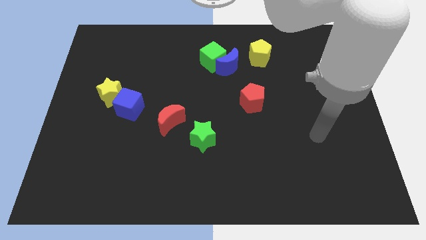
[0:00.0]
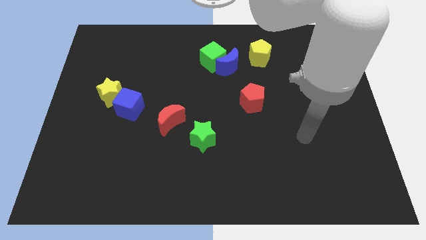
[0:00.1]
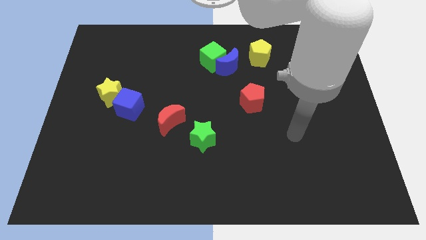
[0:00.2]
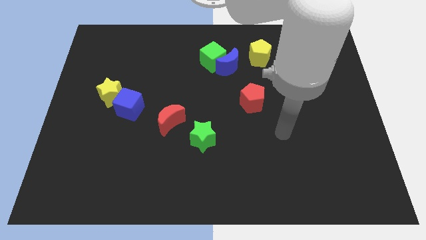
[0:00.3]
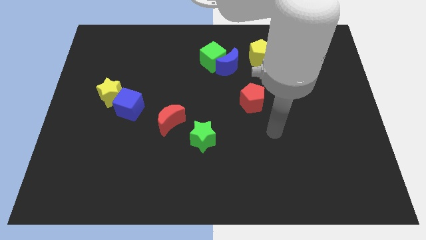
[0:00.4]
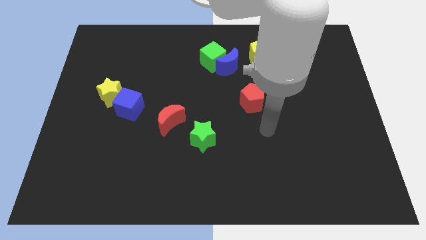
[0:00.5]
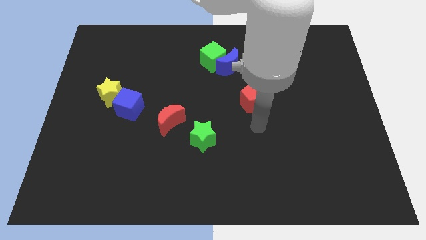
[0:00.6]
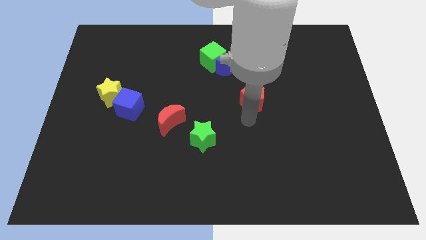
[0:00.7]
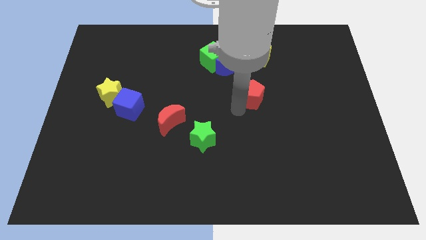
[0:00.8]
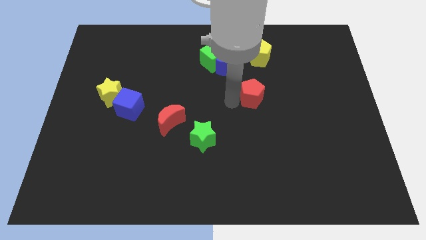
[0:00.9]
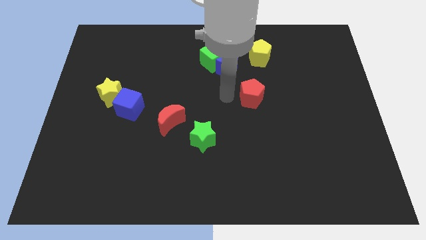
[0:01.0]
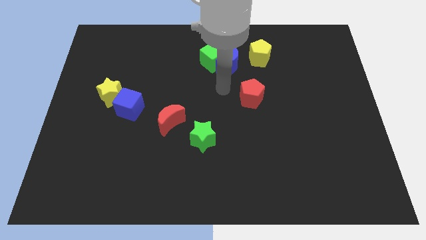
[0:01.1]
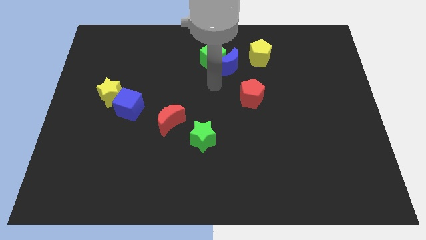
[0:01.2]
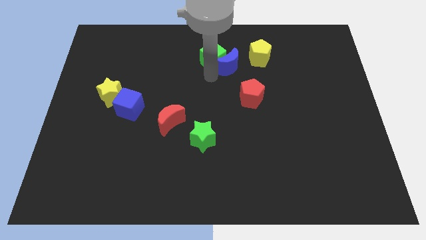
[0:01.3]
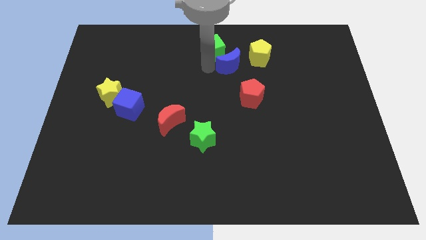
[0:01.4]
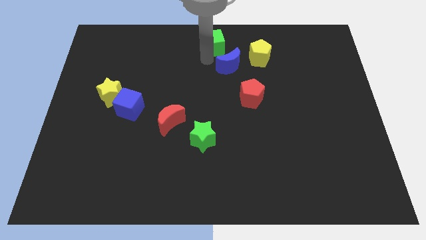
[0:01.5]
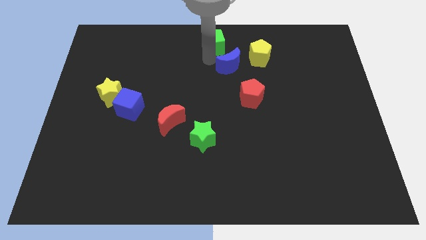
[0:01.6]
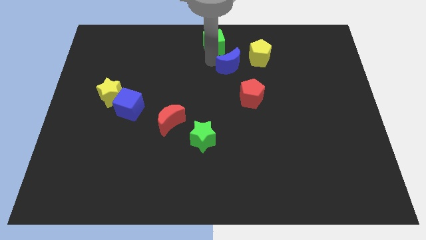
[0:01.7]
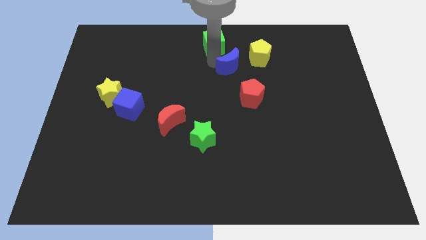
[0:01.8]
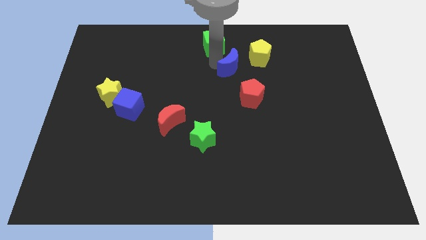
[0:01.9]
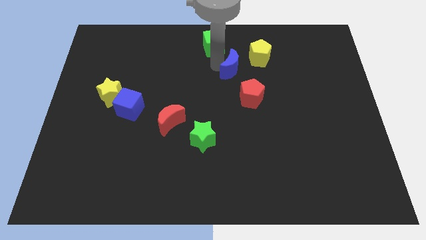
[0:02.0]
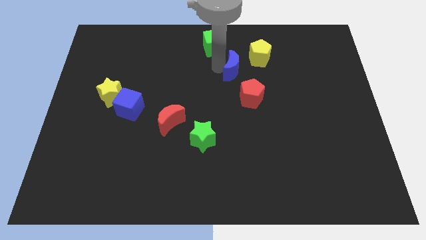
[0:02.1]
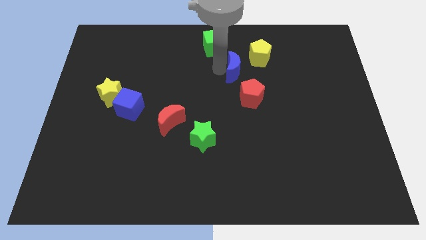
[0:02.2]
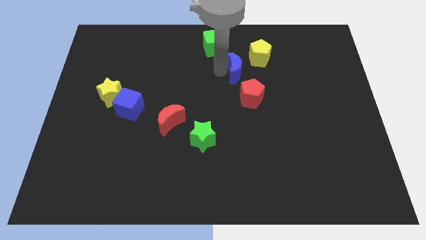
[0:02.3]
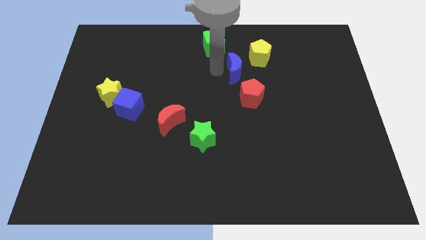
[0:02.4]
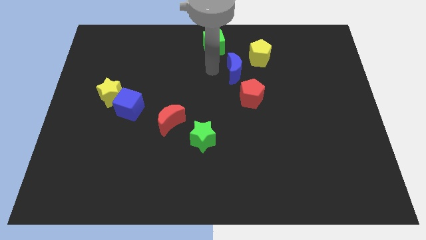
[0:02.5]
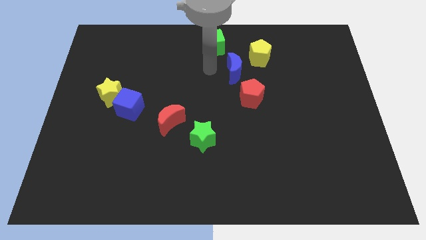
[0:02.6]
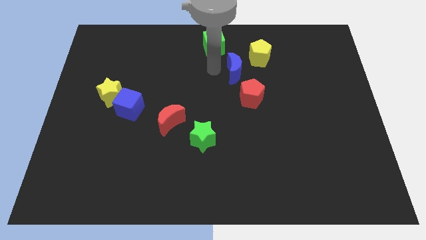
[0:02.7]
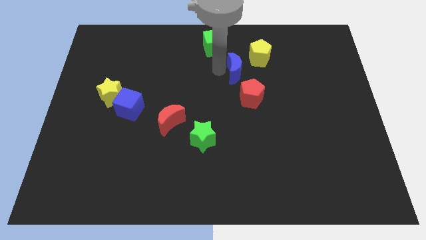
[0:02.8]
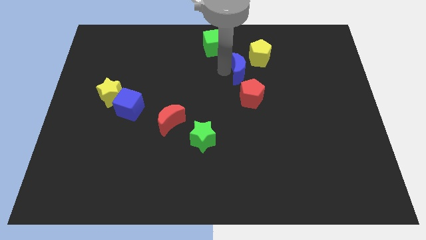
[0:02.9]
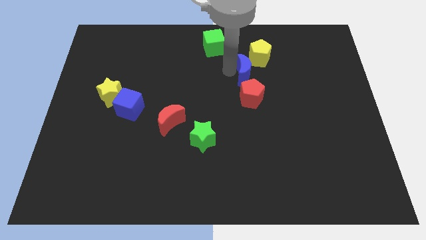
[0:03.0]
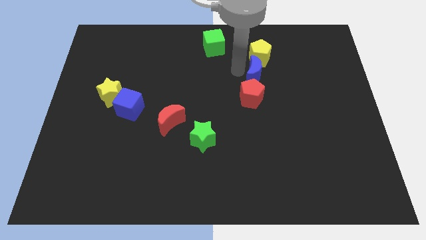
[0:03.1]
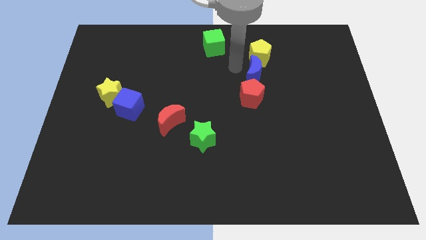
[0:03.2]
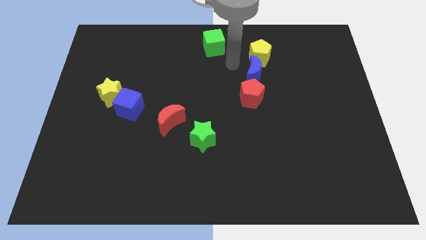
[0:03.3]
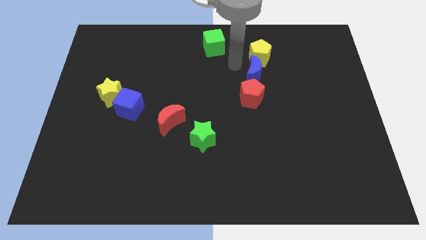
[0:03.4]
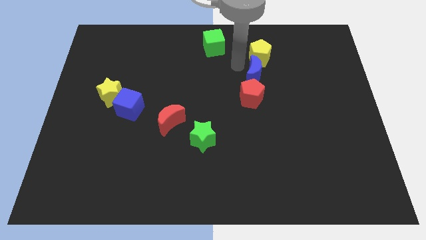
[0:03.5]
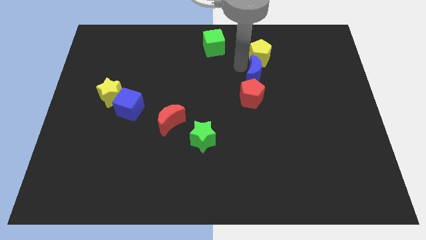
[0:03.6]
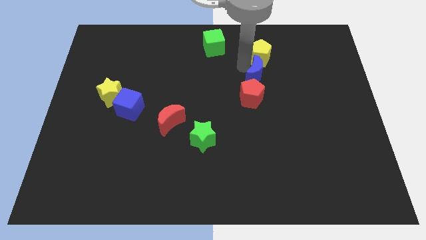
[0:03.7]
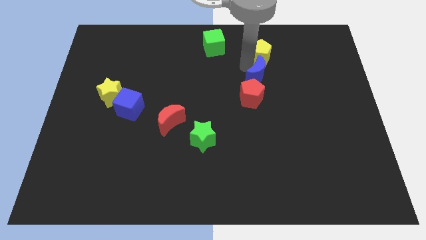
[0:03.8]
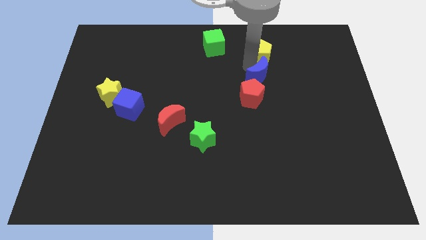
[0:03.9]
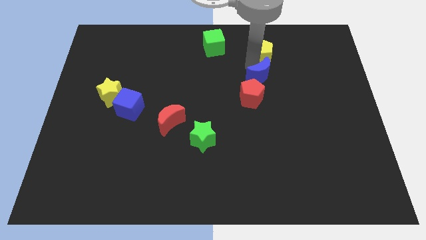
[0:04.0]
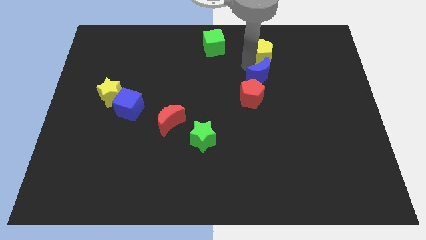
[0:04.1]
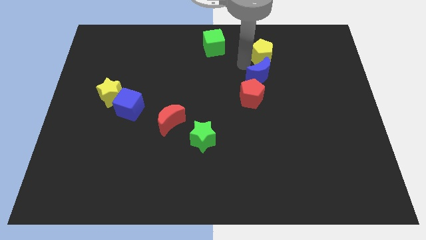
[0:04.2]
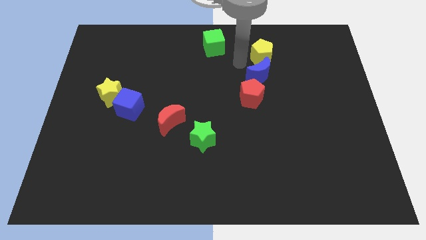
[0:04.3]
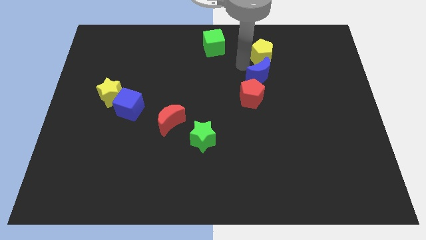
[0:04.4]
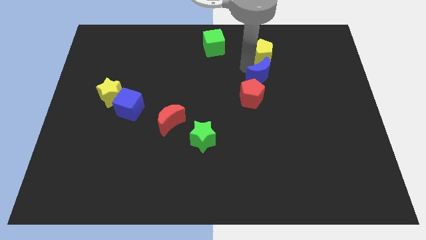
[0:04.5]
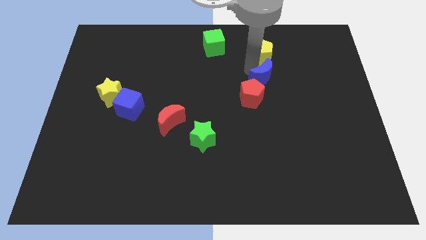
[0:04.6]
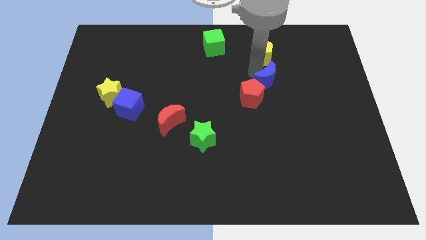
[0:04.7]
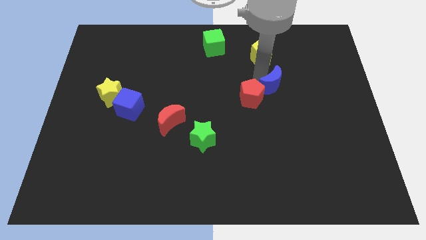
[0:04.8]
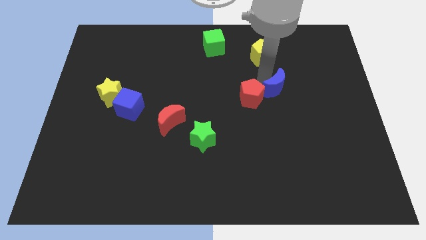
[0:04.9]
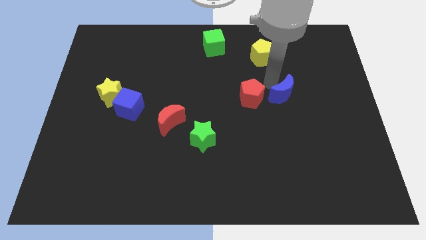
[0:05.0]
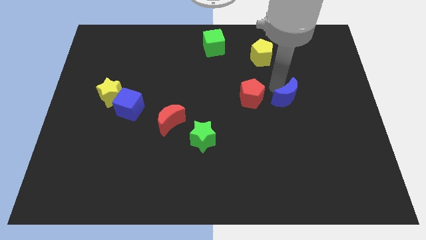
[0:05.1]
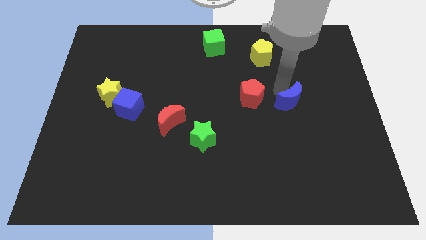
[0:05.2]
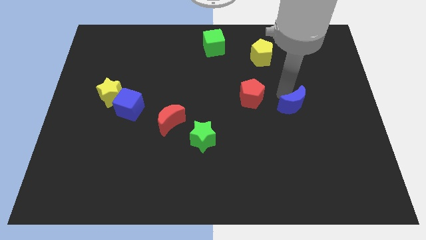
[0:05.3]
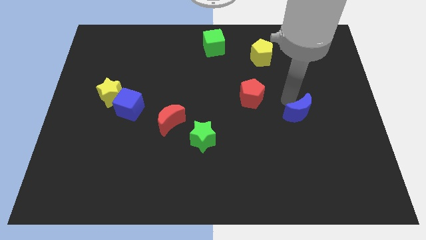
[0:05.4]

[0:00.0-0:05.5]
move the blue moon diagonally down and to the right

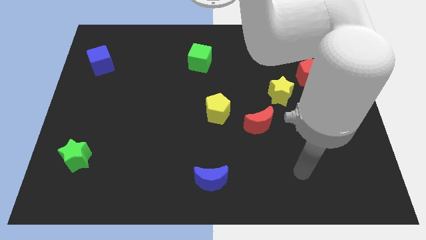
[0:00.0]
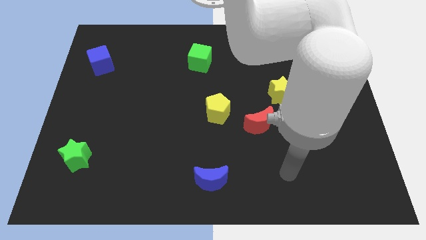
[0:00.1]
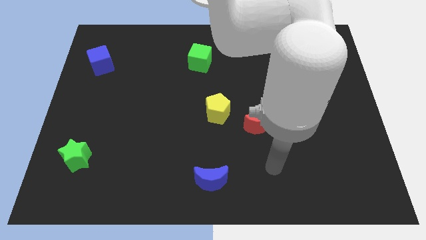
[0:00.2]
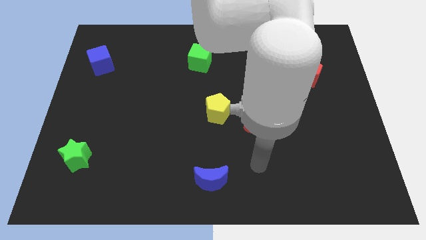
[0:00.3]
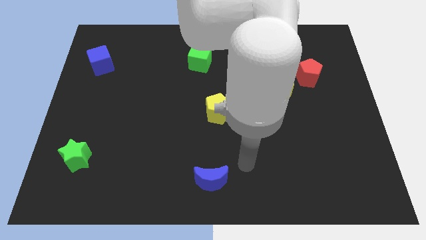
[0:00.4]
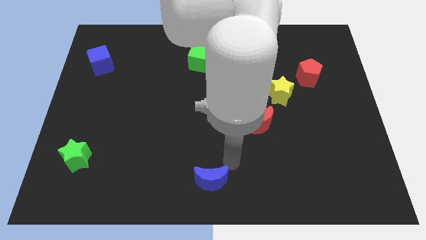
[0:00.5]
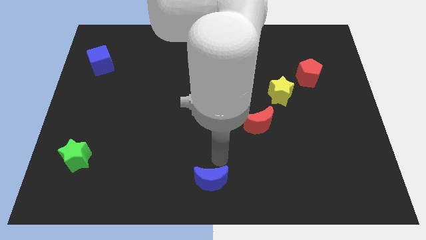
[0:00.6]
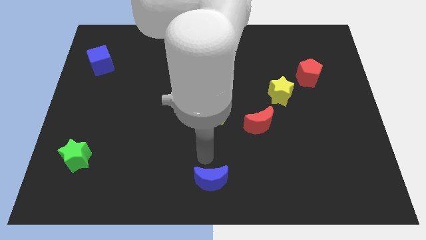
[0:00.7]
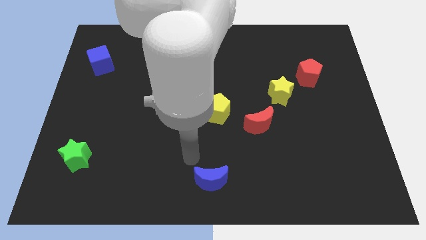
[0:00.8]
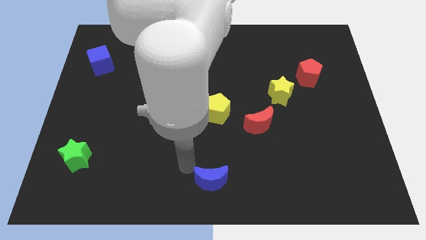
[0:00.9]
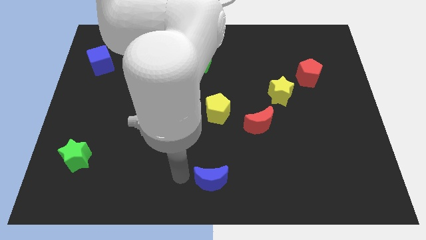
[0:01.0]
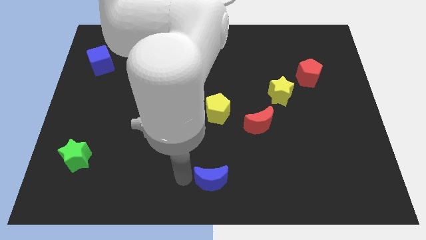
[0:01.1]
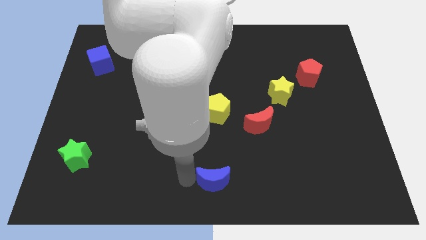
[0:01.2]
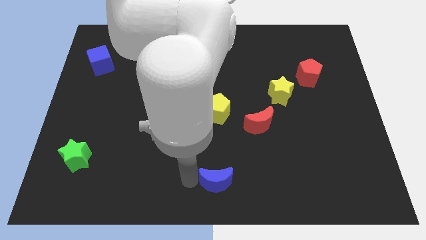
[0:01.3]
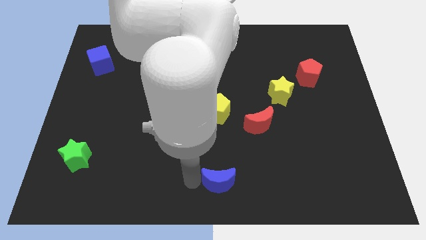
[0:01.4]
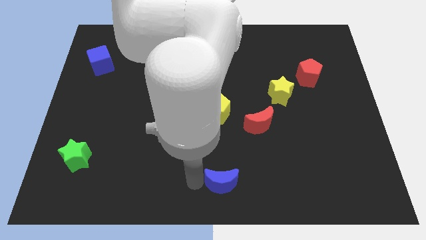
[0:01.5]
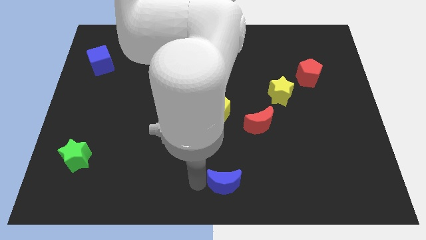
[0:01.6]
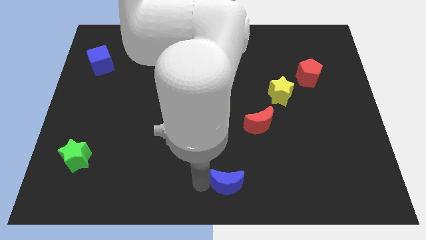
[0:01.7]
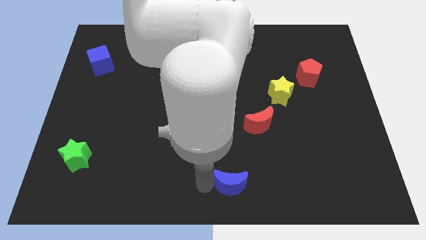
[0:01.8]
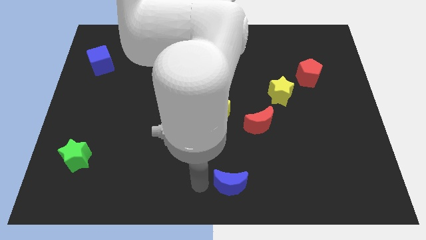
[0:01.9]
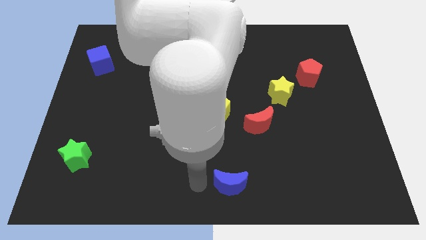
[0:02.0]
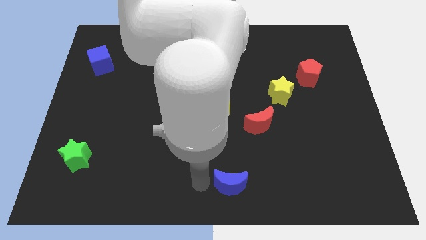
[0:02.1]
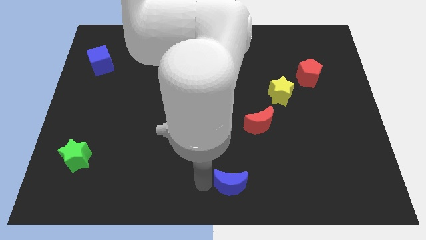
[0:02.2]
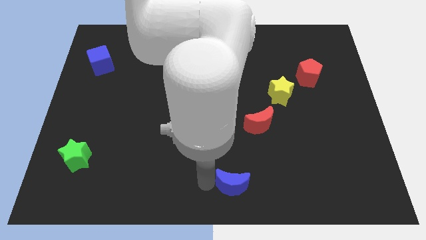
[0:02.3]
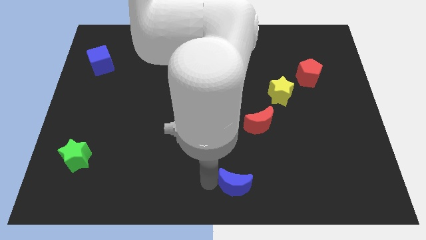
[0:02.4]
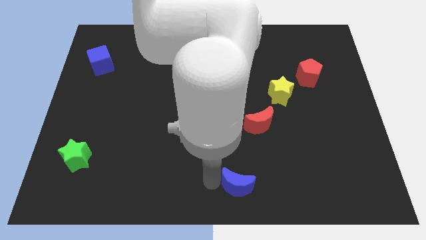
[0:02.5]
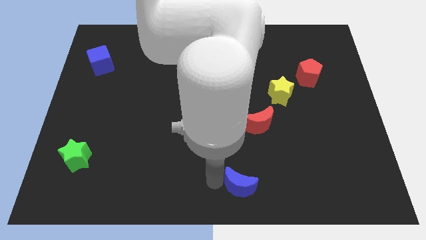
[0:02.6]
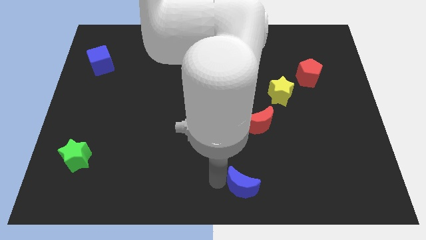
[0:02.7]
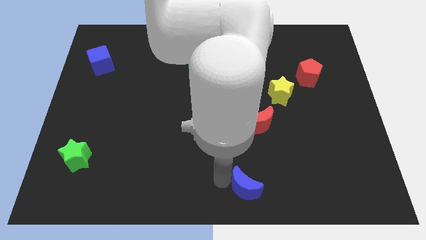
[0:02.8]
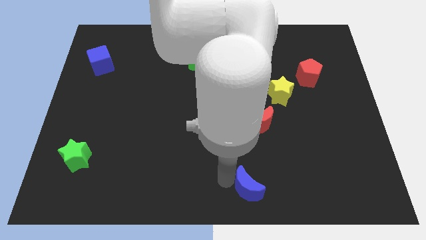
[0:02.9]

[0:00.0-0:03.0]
slightly push the blue moon right
